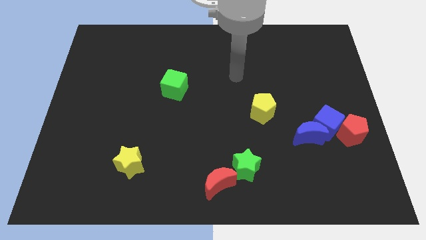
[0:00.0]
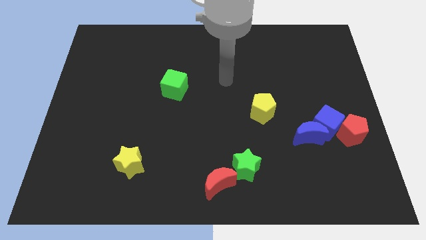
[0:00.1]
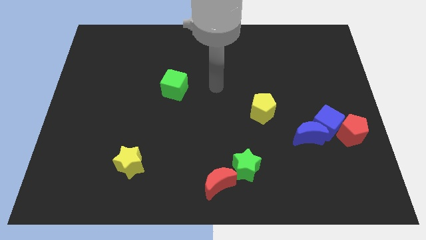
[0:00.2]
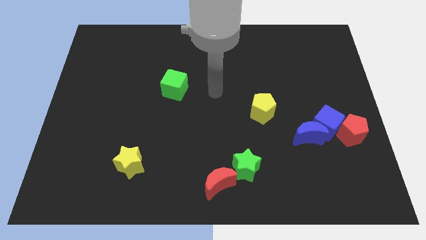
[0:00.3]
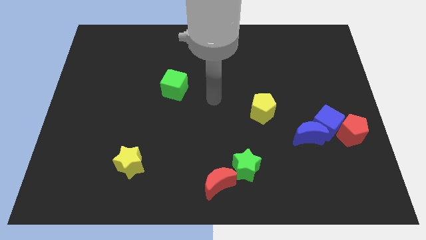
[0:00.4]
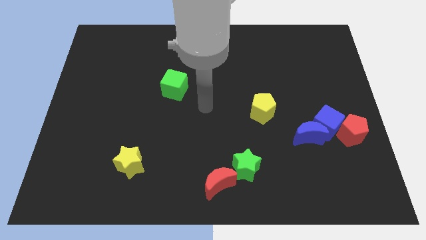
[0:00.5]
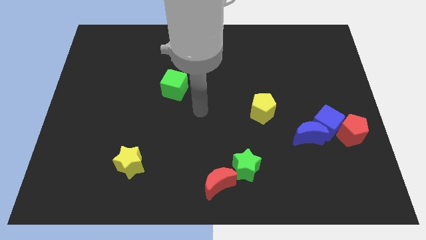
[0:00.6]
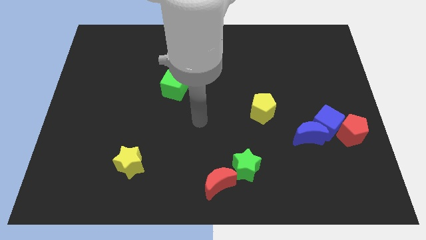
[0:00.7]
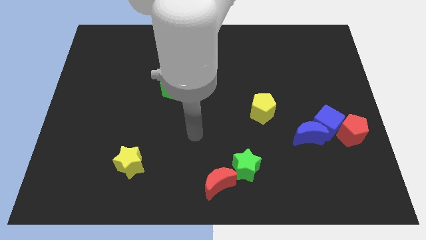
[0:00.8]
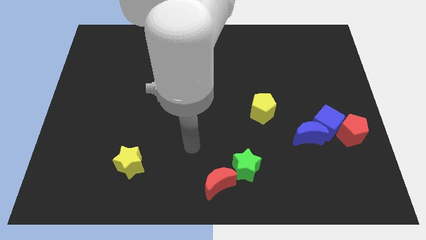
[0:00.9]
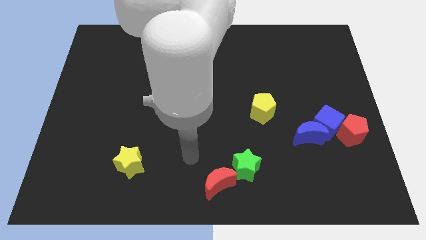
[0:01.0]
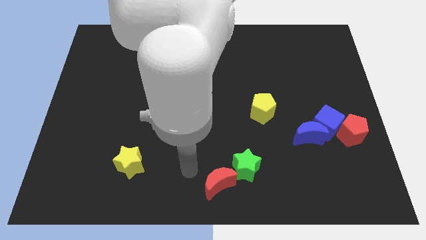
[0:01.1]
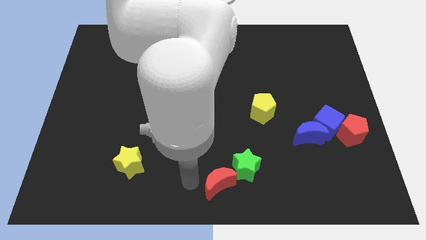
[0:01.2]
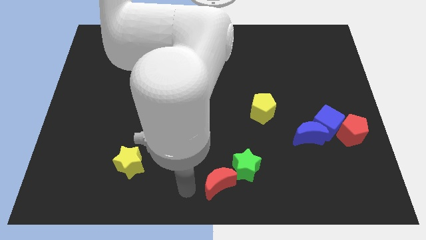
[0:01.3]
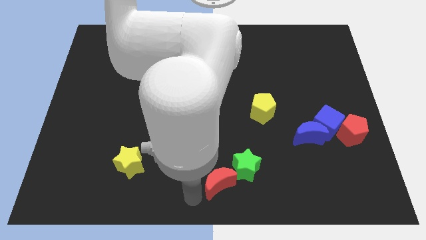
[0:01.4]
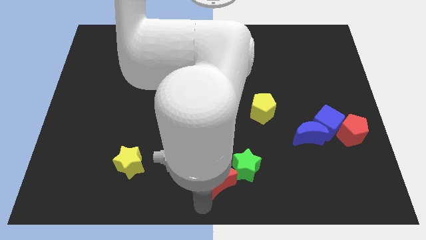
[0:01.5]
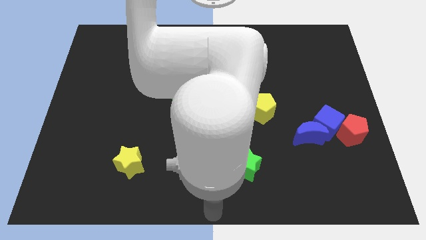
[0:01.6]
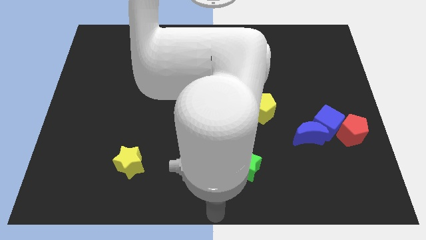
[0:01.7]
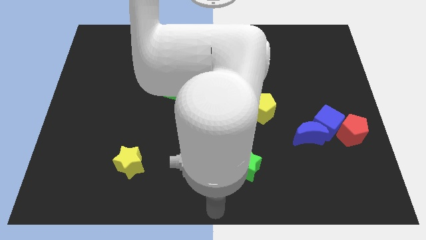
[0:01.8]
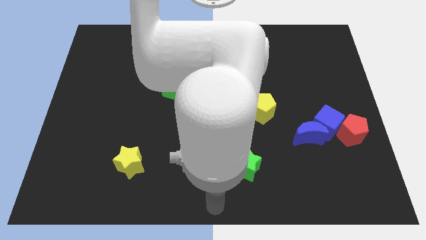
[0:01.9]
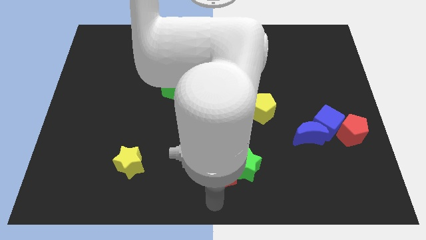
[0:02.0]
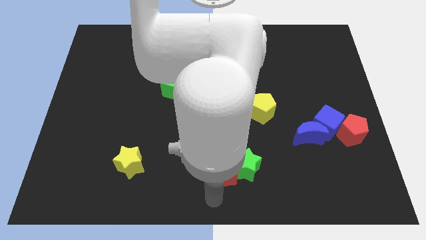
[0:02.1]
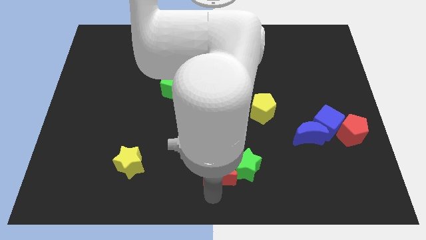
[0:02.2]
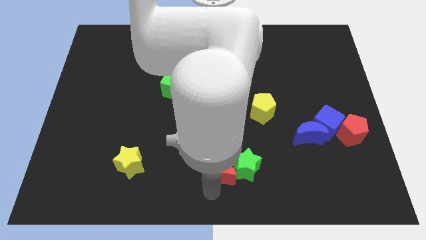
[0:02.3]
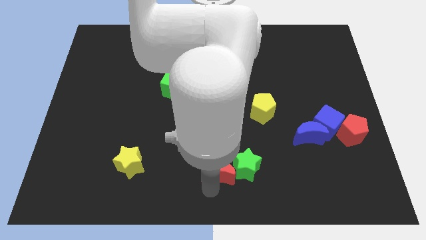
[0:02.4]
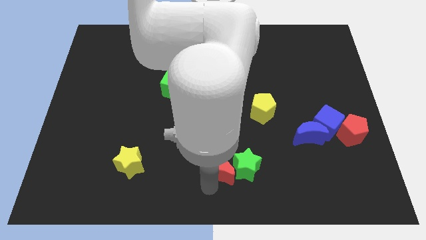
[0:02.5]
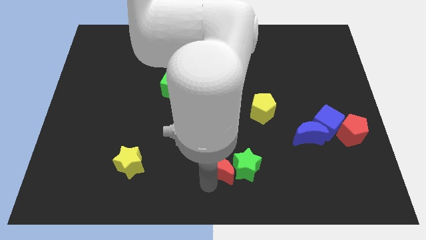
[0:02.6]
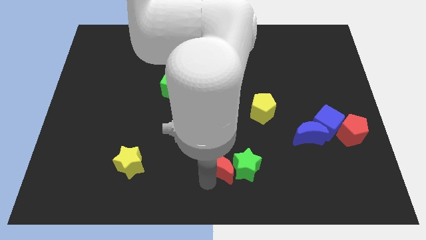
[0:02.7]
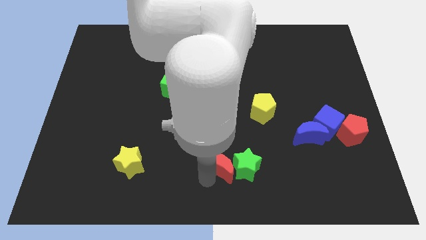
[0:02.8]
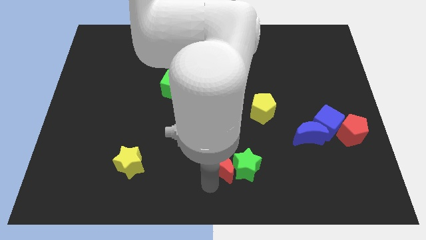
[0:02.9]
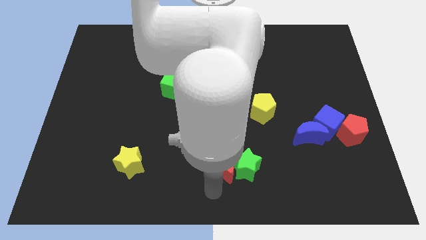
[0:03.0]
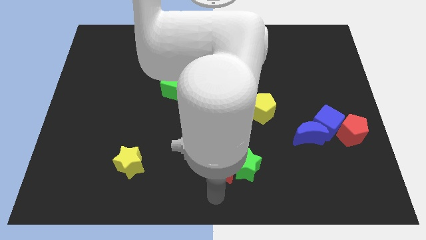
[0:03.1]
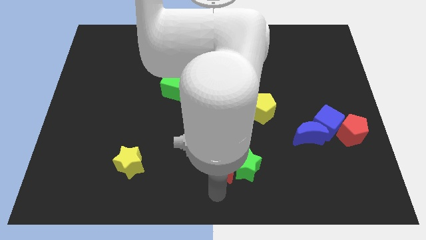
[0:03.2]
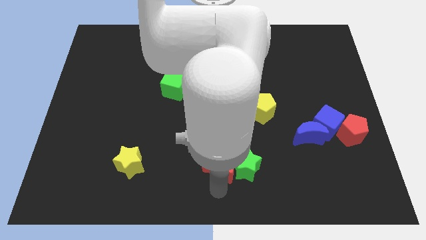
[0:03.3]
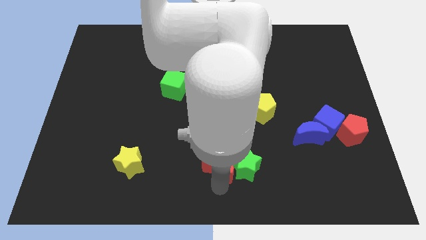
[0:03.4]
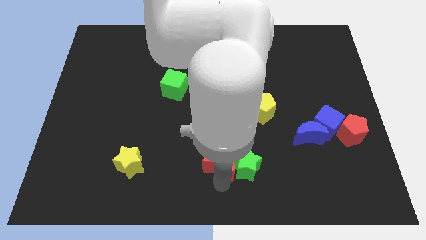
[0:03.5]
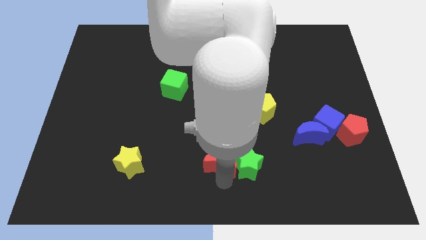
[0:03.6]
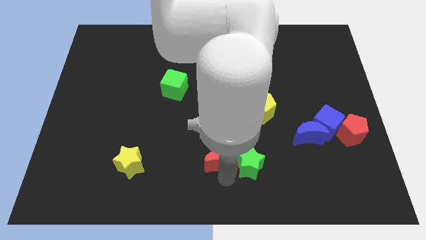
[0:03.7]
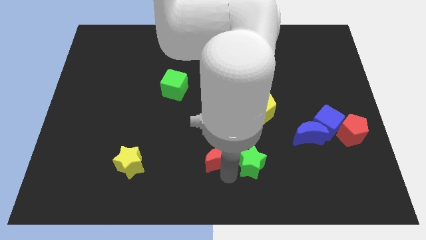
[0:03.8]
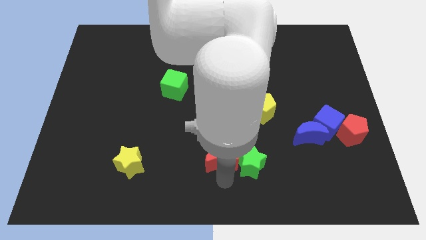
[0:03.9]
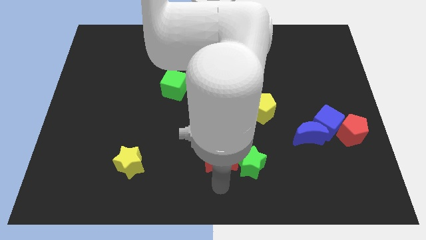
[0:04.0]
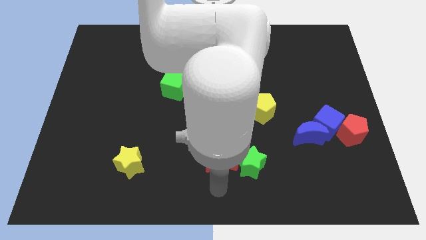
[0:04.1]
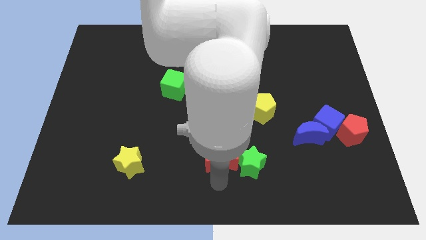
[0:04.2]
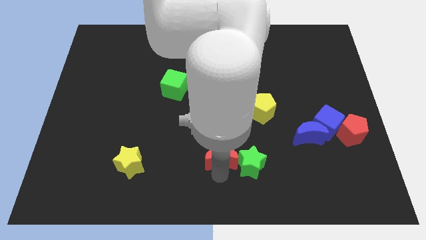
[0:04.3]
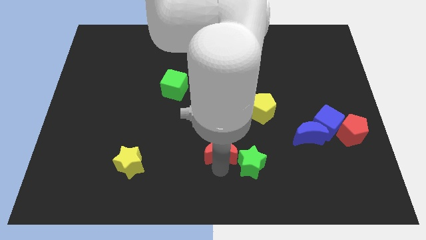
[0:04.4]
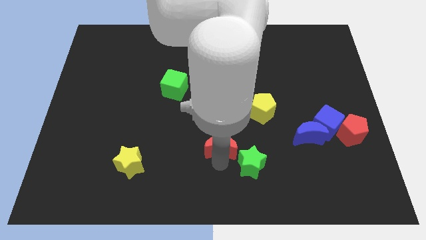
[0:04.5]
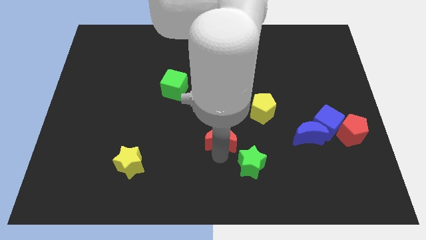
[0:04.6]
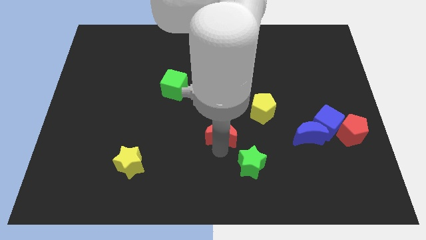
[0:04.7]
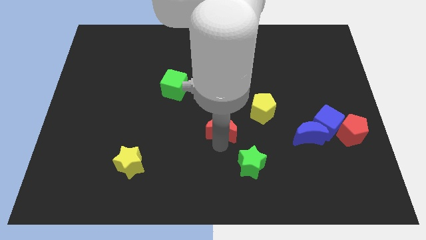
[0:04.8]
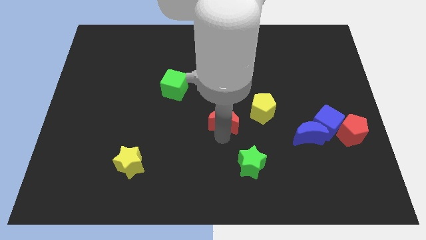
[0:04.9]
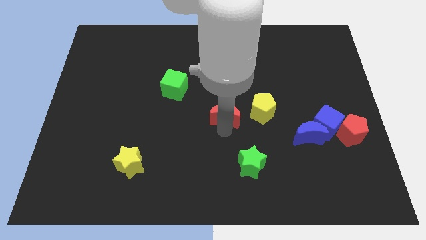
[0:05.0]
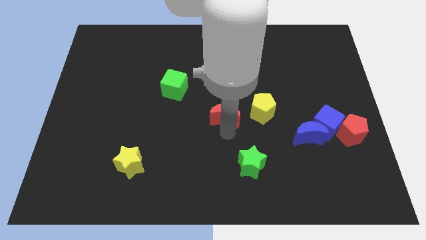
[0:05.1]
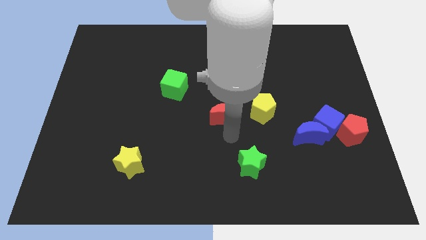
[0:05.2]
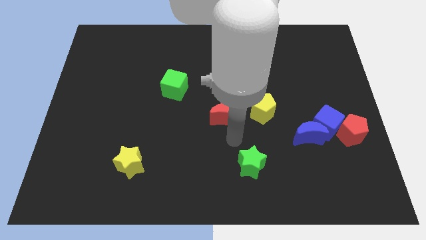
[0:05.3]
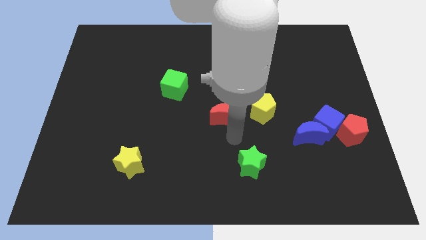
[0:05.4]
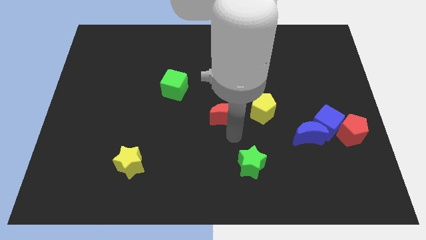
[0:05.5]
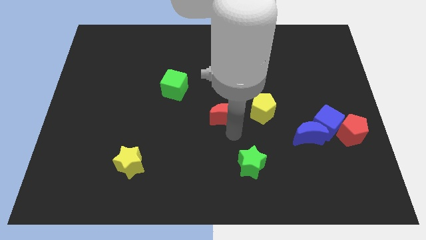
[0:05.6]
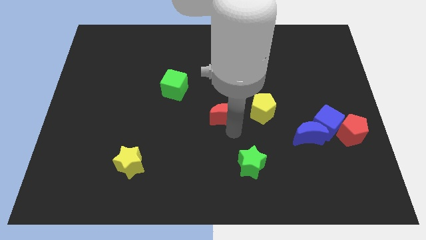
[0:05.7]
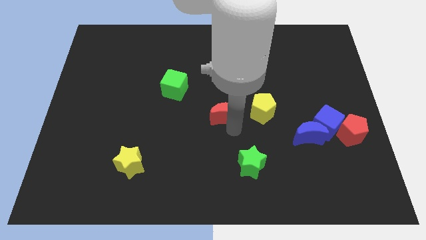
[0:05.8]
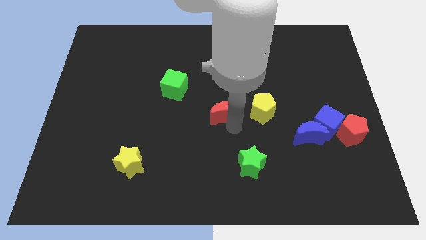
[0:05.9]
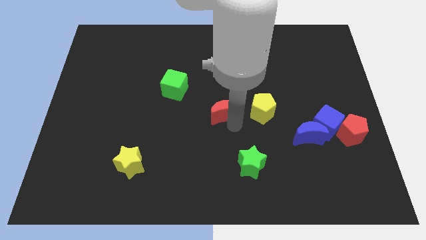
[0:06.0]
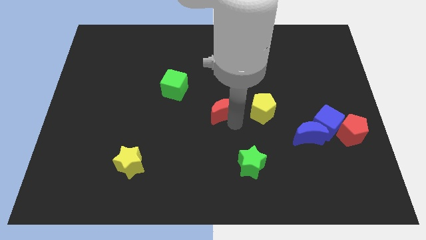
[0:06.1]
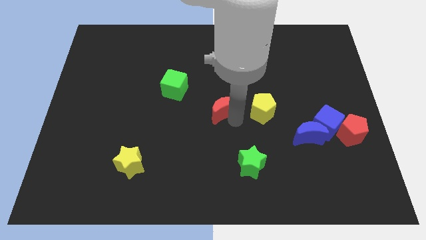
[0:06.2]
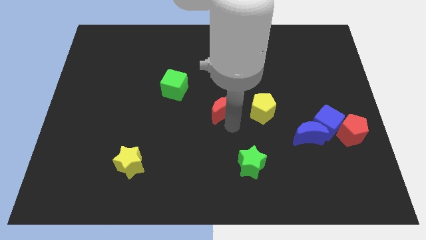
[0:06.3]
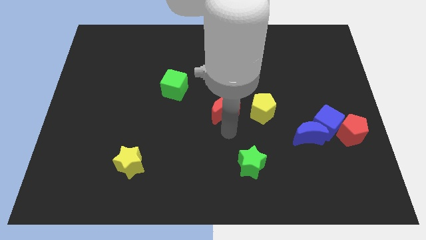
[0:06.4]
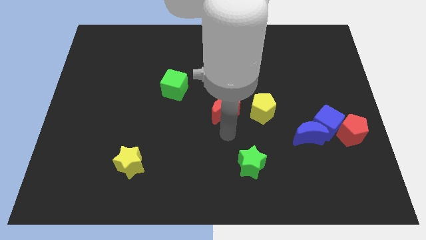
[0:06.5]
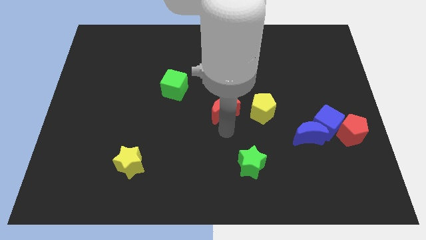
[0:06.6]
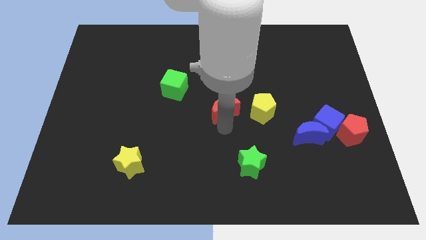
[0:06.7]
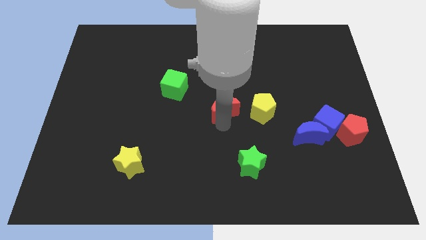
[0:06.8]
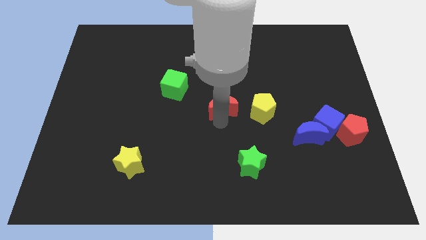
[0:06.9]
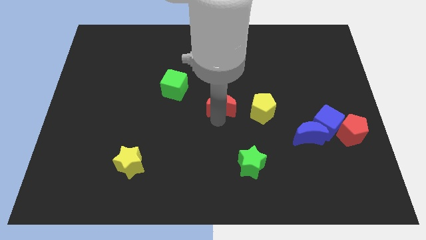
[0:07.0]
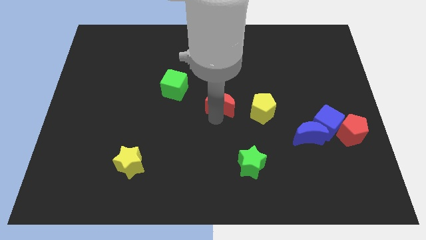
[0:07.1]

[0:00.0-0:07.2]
slide the red moon up

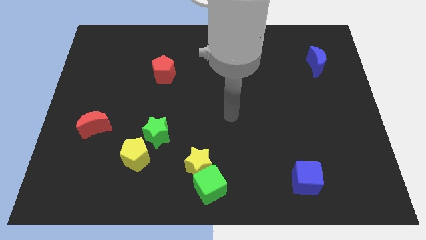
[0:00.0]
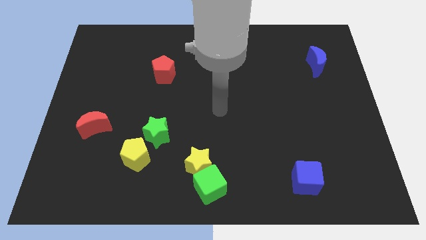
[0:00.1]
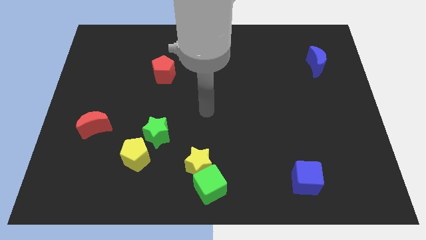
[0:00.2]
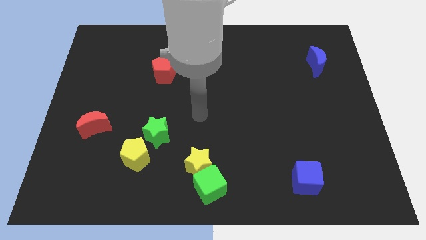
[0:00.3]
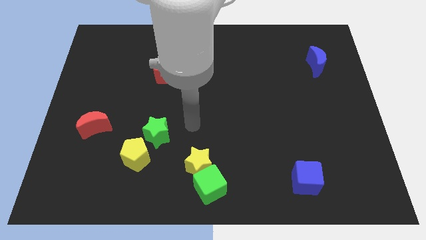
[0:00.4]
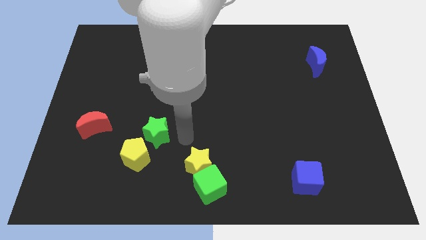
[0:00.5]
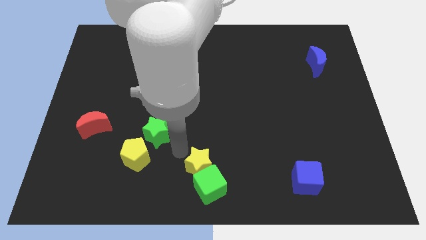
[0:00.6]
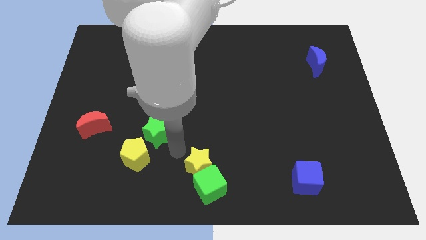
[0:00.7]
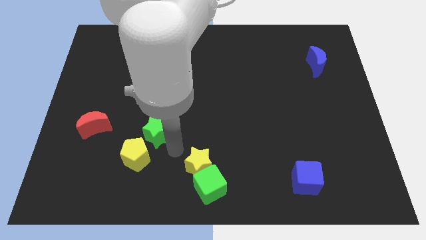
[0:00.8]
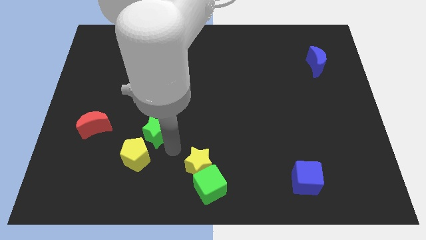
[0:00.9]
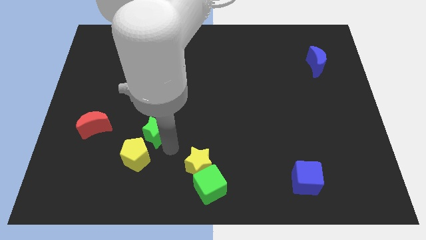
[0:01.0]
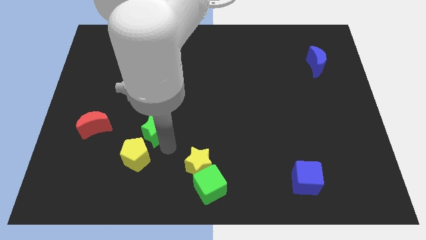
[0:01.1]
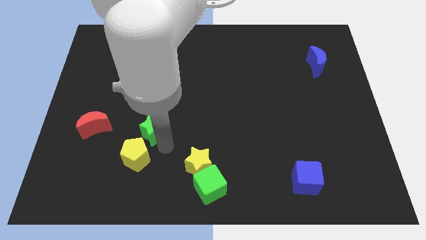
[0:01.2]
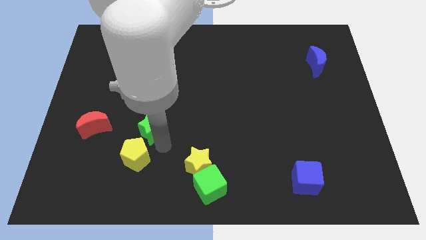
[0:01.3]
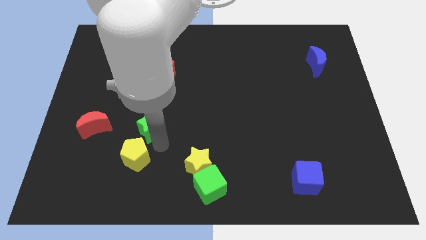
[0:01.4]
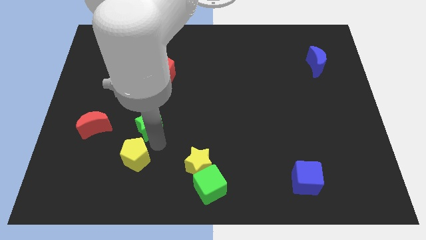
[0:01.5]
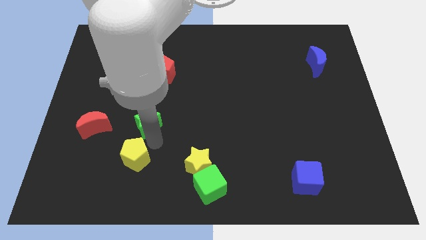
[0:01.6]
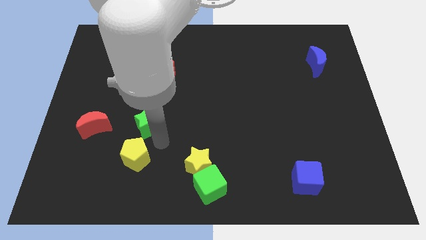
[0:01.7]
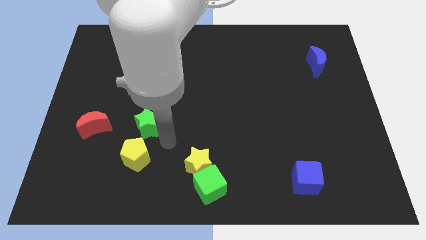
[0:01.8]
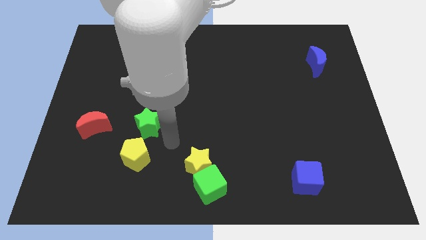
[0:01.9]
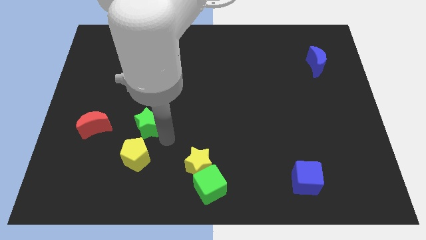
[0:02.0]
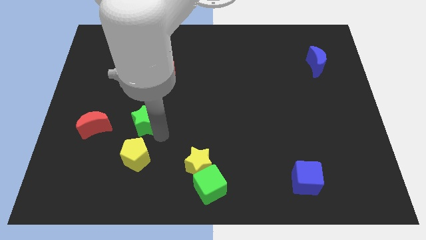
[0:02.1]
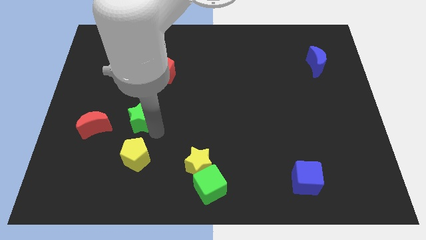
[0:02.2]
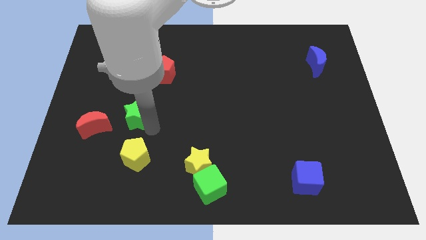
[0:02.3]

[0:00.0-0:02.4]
slightly move the green star up and left
